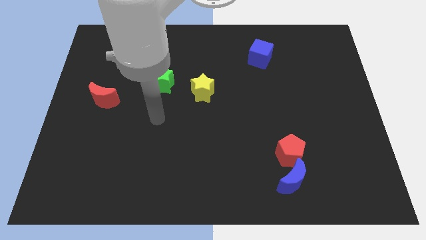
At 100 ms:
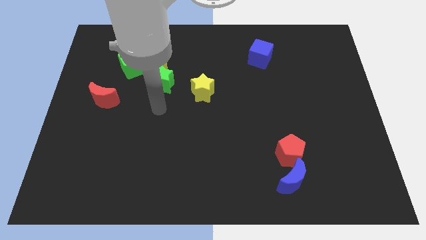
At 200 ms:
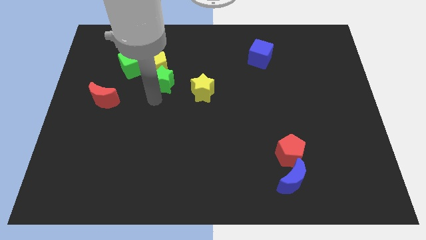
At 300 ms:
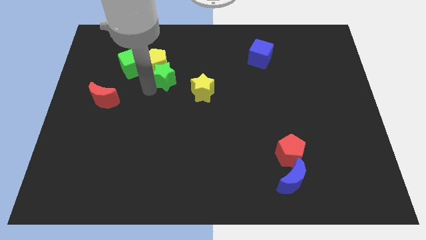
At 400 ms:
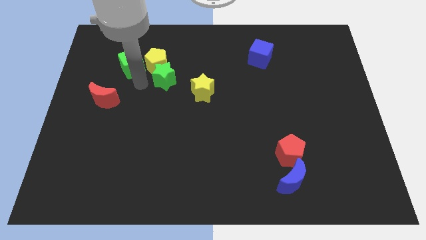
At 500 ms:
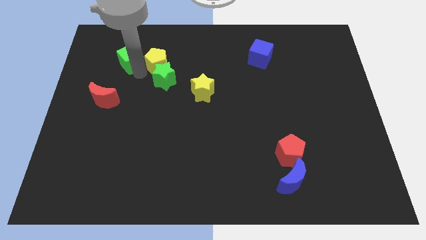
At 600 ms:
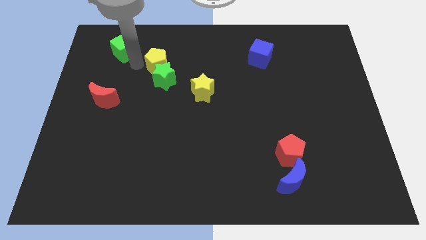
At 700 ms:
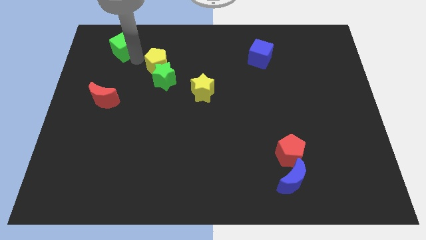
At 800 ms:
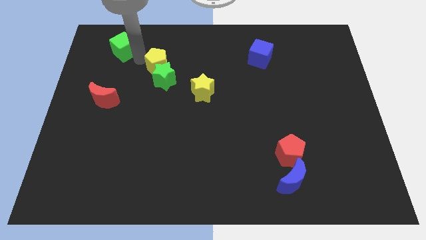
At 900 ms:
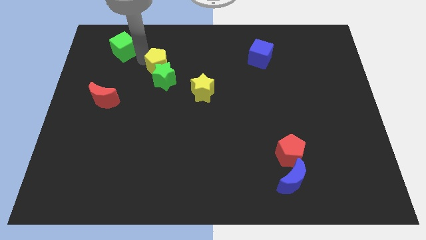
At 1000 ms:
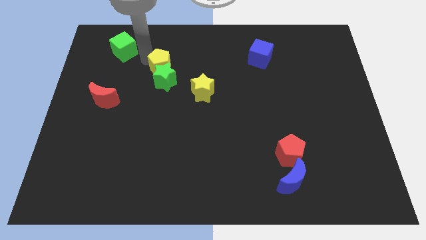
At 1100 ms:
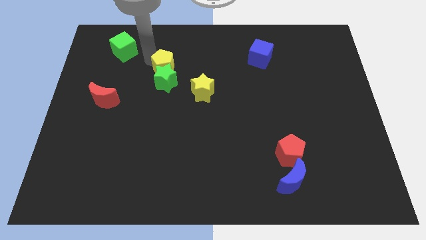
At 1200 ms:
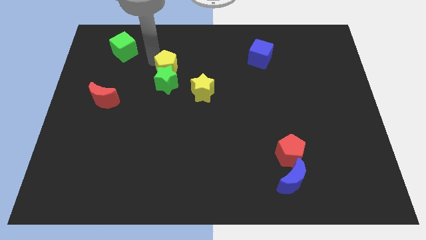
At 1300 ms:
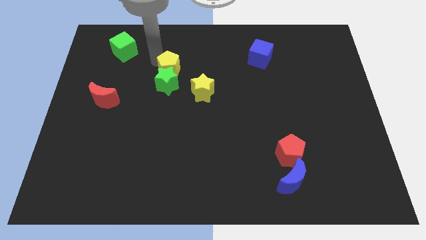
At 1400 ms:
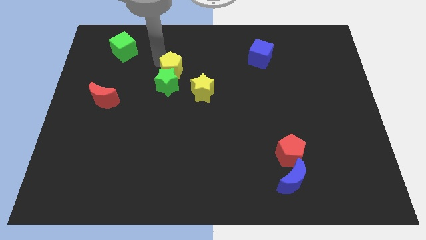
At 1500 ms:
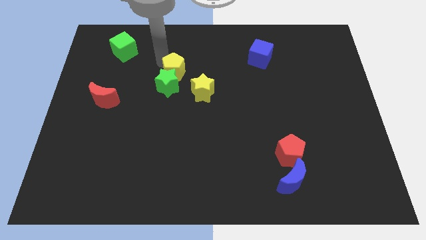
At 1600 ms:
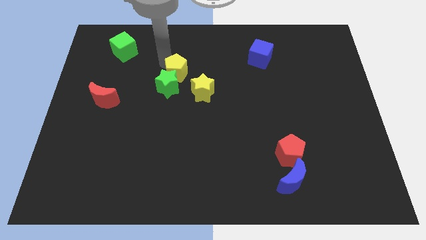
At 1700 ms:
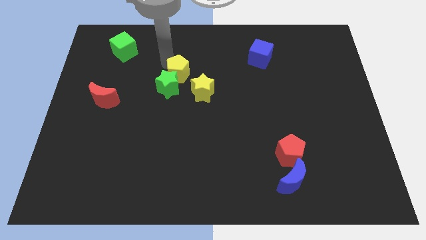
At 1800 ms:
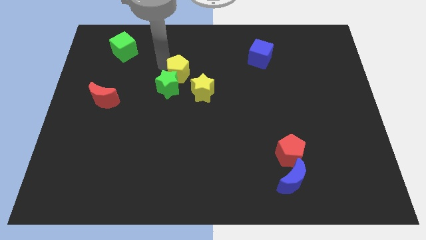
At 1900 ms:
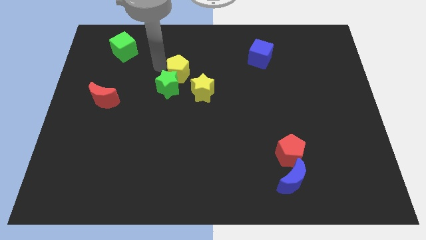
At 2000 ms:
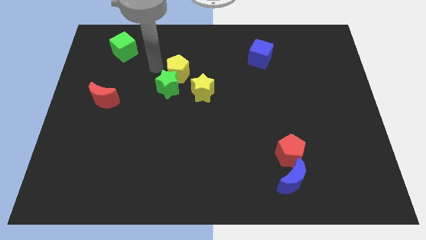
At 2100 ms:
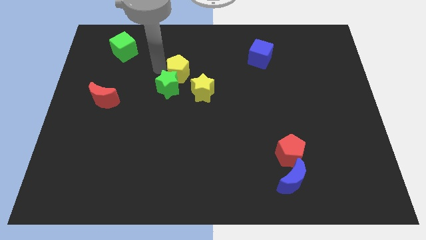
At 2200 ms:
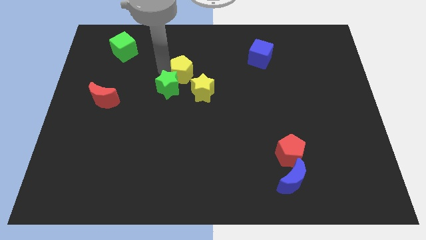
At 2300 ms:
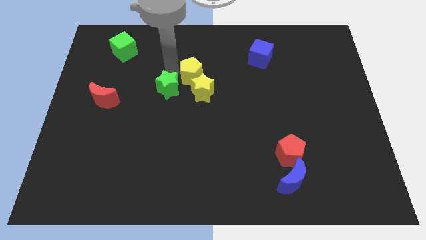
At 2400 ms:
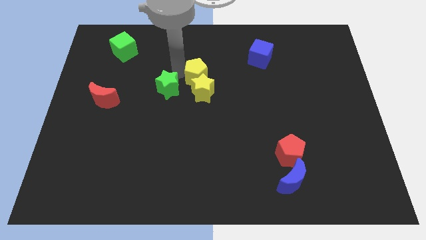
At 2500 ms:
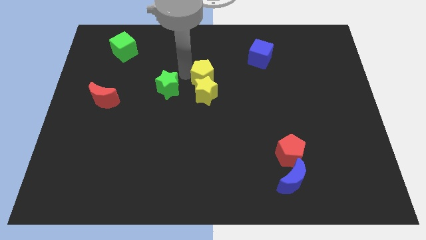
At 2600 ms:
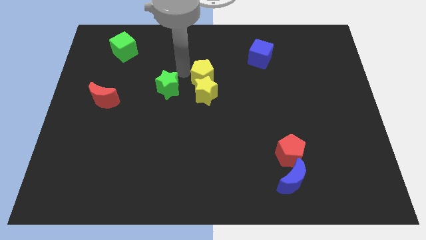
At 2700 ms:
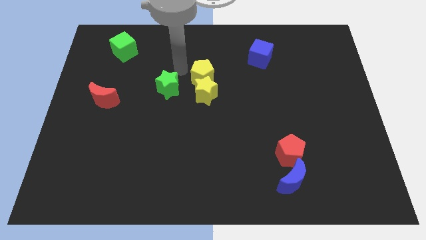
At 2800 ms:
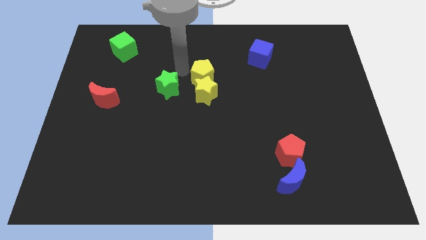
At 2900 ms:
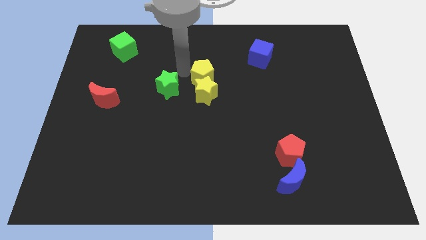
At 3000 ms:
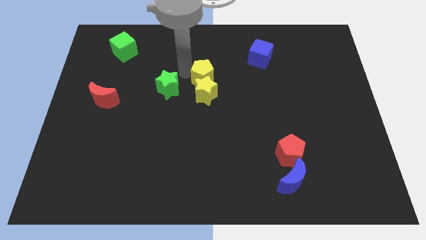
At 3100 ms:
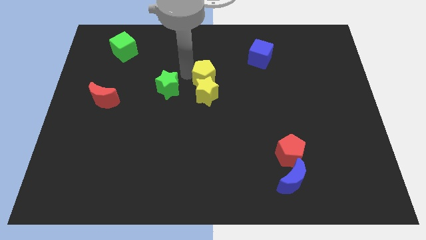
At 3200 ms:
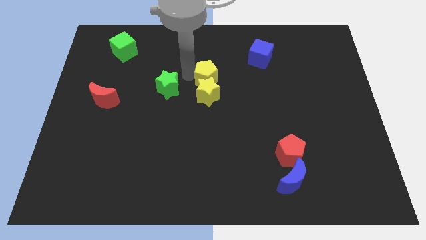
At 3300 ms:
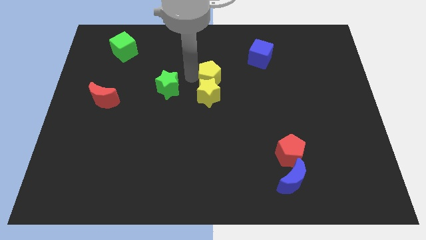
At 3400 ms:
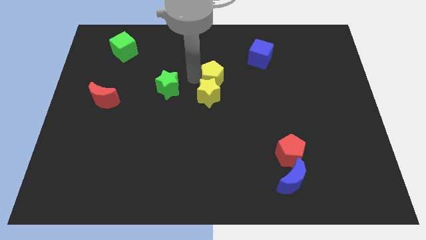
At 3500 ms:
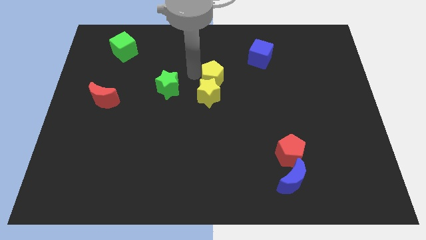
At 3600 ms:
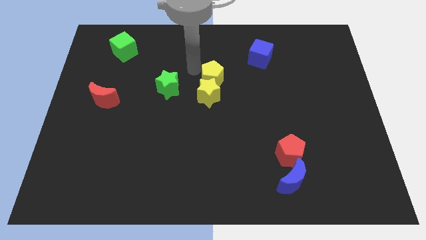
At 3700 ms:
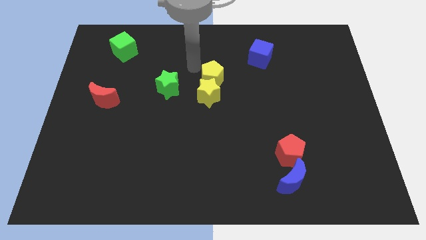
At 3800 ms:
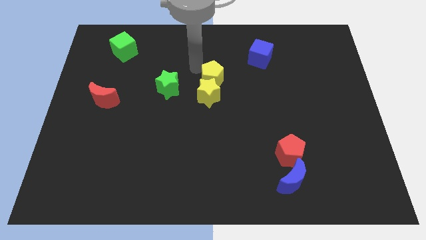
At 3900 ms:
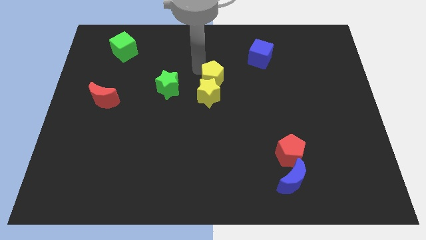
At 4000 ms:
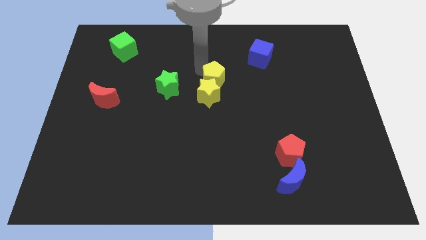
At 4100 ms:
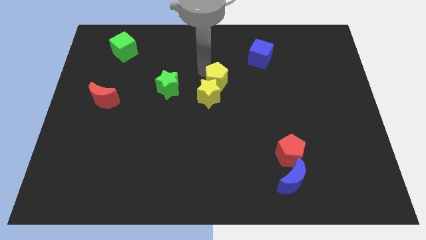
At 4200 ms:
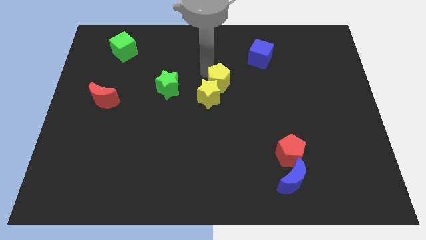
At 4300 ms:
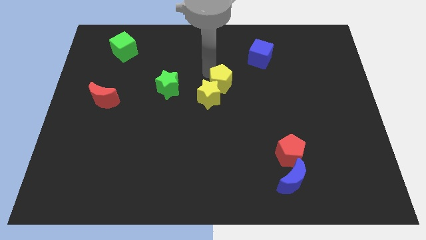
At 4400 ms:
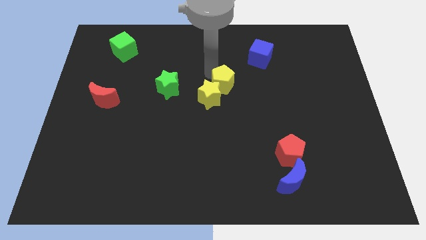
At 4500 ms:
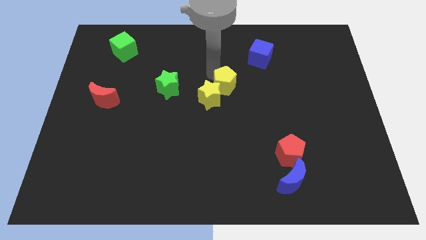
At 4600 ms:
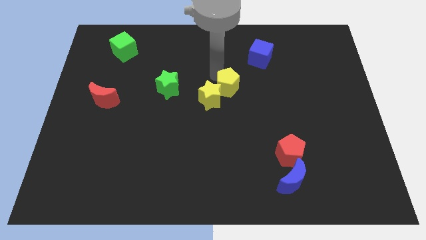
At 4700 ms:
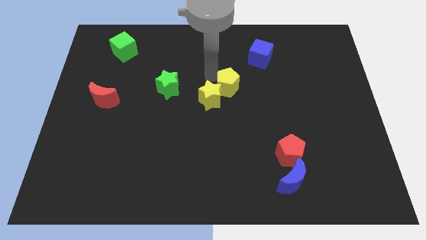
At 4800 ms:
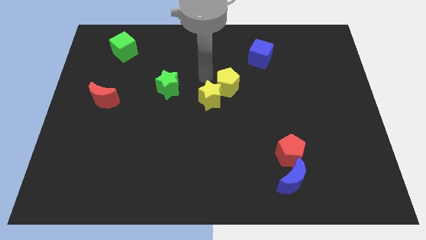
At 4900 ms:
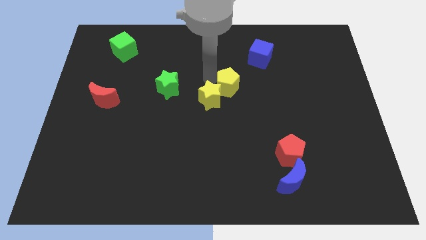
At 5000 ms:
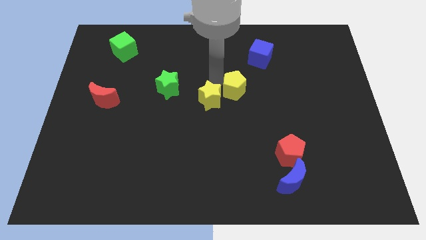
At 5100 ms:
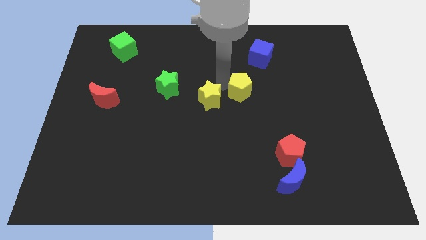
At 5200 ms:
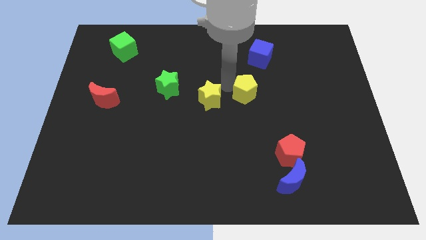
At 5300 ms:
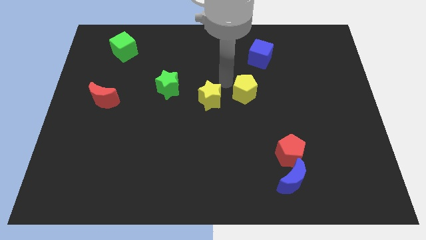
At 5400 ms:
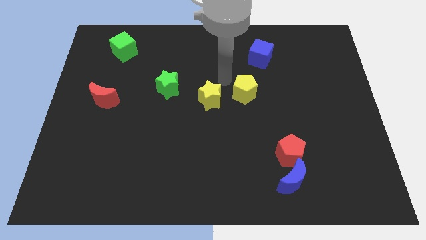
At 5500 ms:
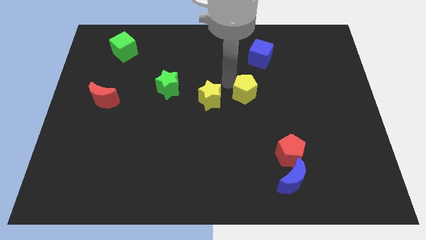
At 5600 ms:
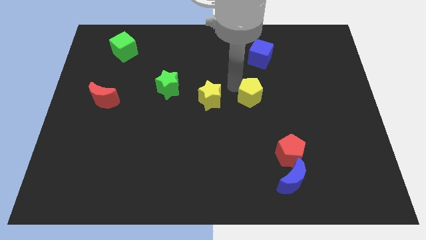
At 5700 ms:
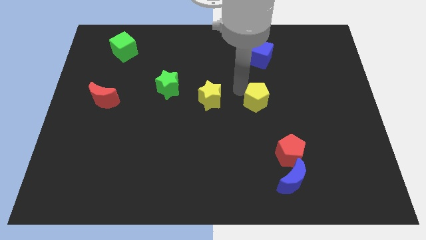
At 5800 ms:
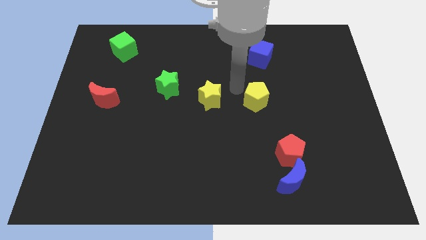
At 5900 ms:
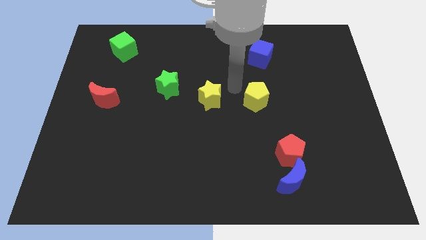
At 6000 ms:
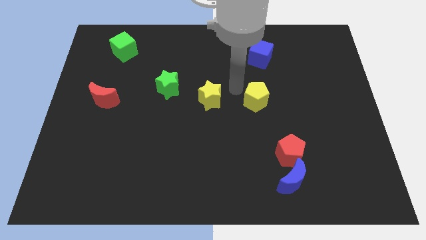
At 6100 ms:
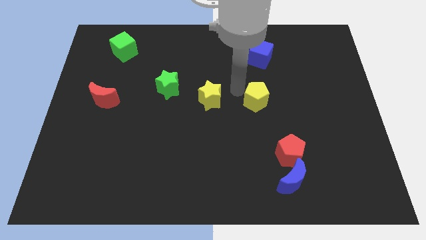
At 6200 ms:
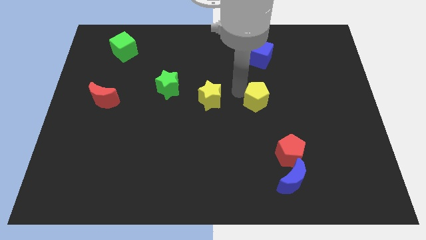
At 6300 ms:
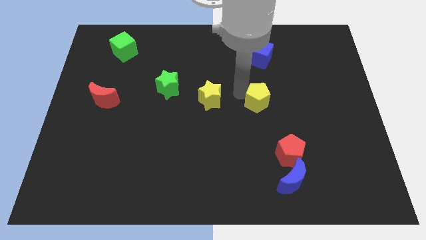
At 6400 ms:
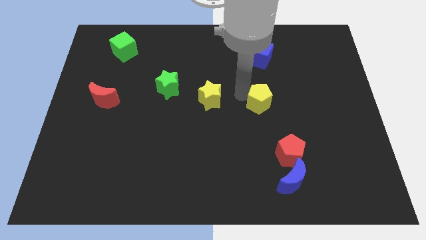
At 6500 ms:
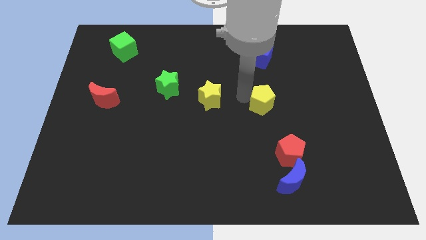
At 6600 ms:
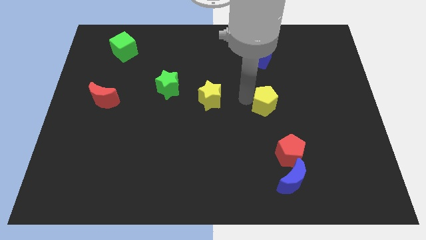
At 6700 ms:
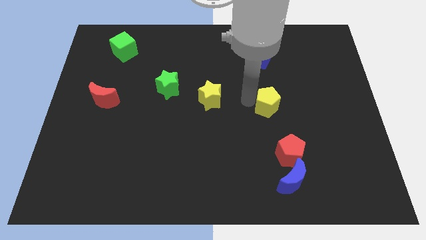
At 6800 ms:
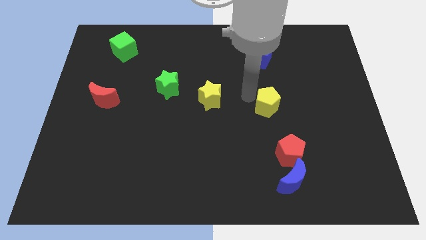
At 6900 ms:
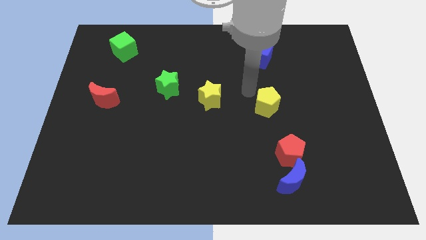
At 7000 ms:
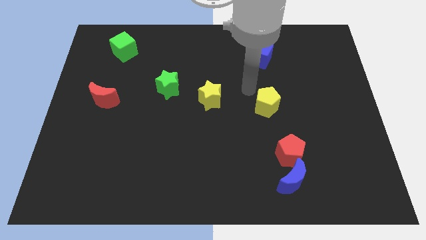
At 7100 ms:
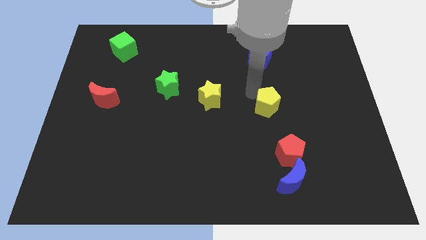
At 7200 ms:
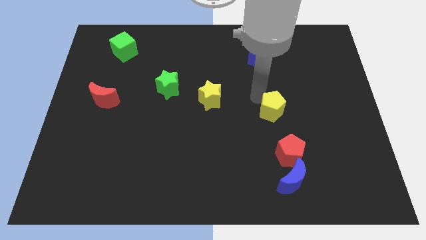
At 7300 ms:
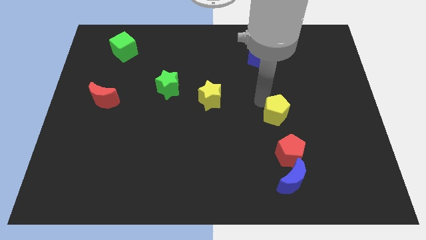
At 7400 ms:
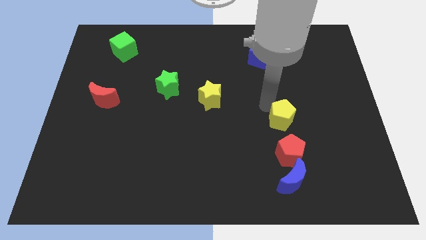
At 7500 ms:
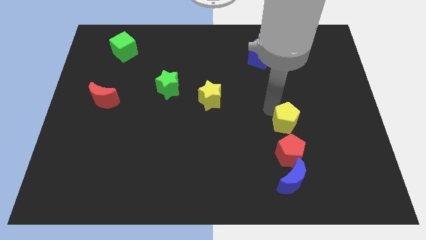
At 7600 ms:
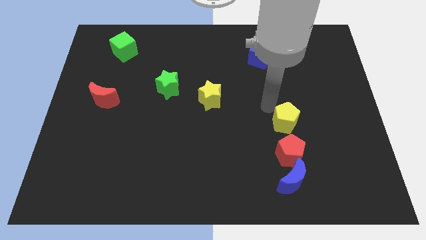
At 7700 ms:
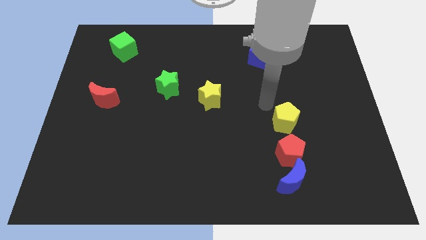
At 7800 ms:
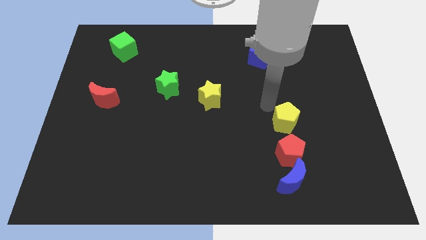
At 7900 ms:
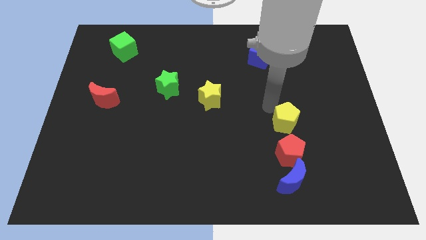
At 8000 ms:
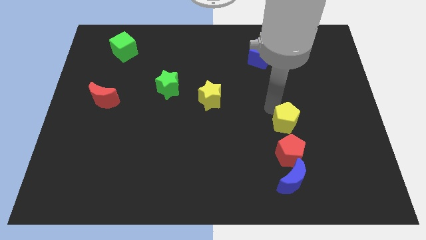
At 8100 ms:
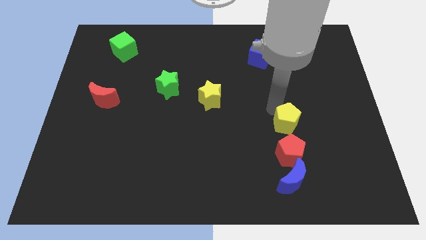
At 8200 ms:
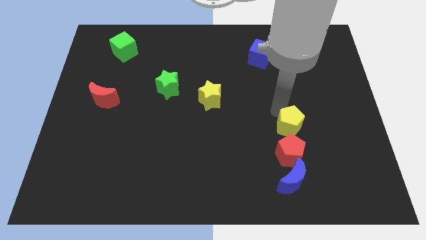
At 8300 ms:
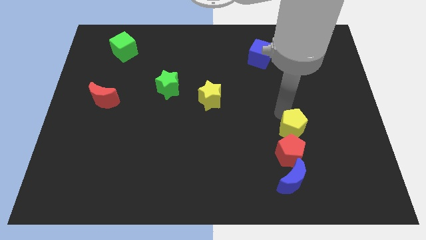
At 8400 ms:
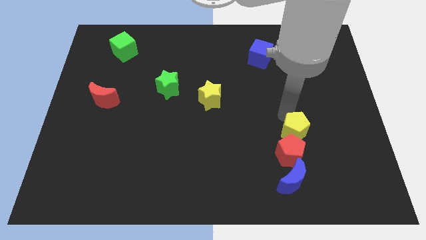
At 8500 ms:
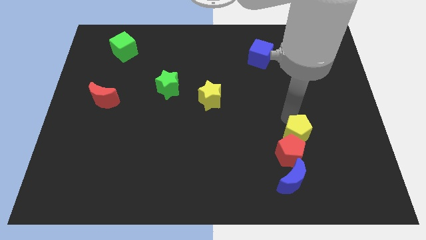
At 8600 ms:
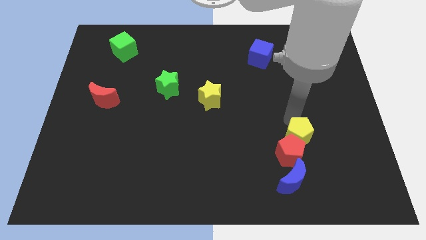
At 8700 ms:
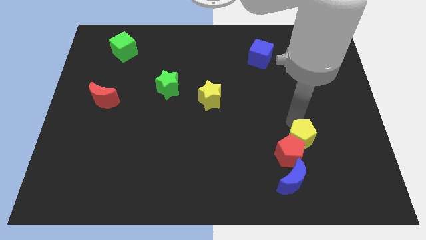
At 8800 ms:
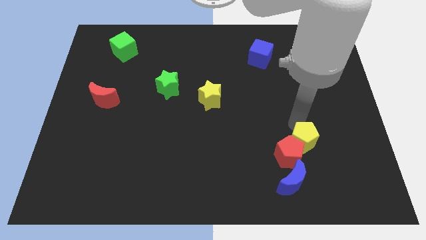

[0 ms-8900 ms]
slide the yellow pentagon to the top right side of the blue moon
